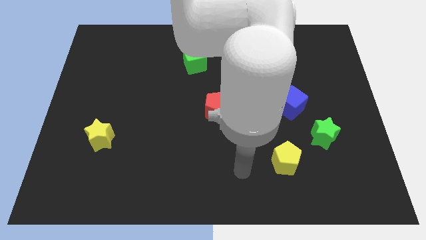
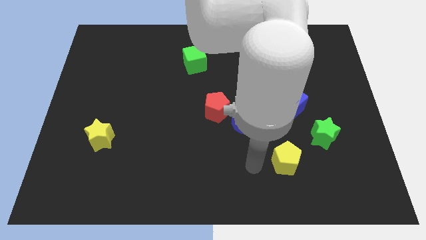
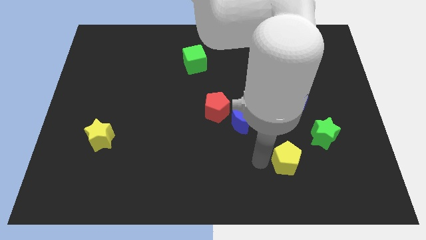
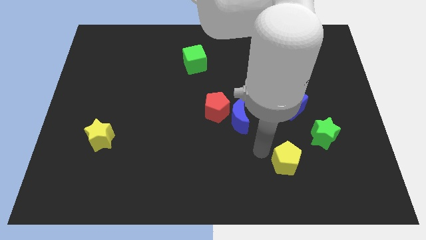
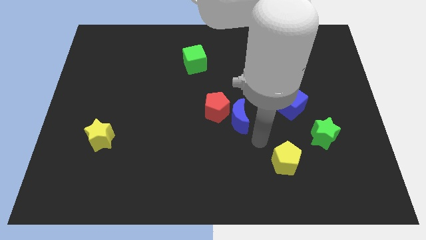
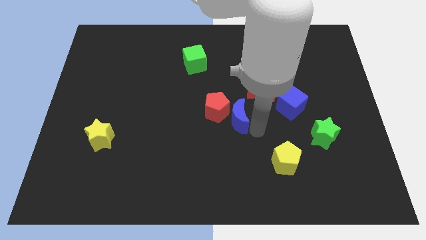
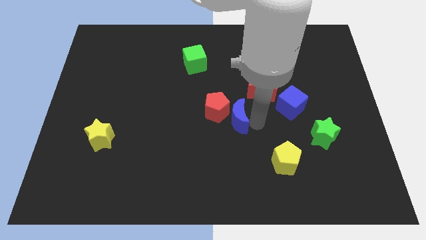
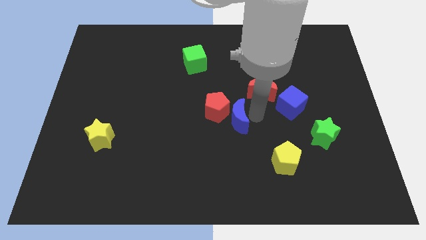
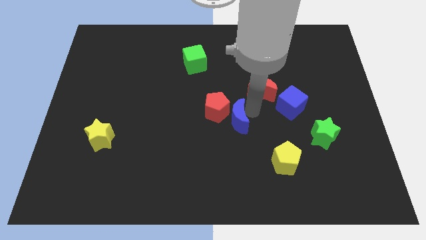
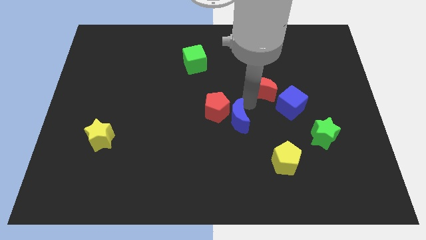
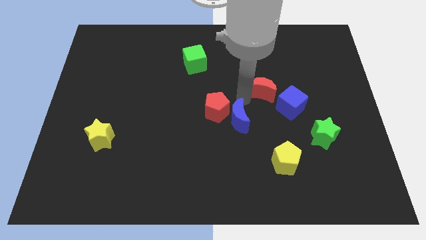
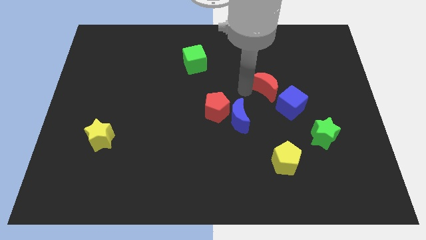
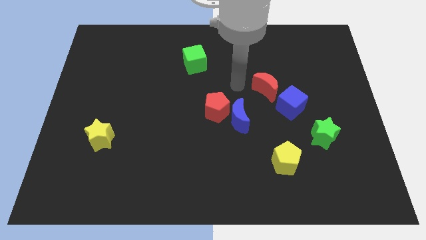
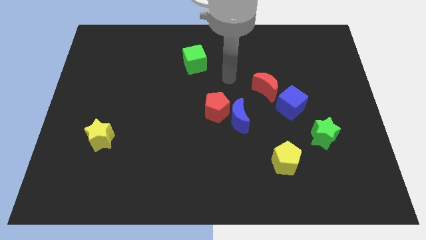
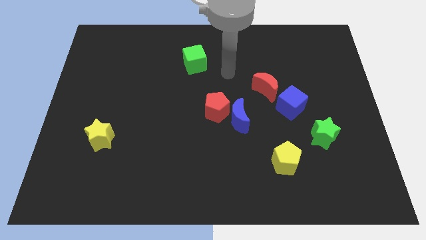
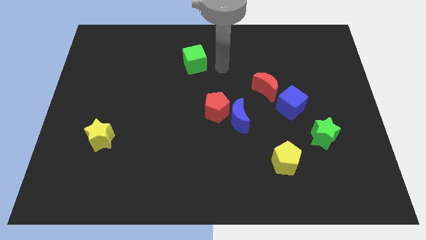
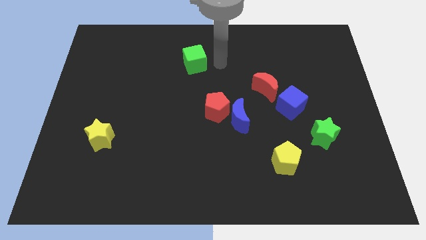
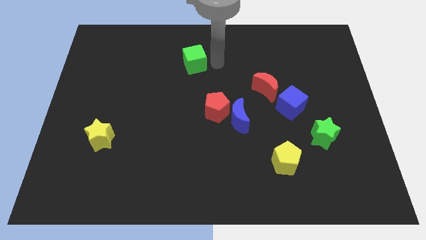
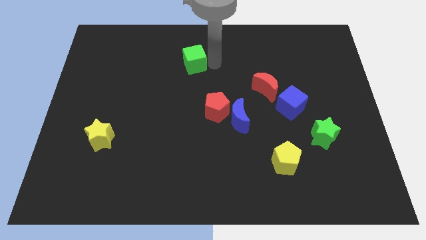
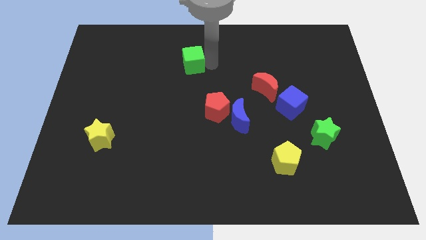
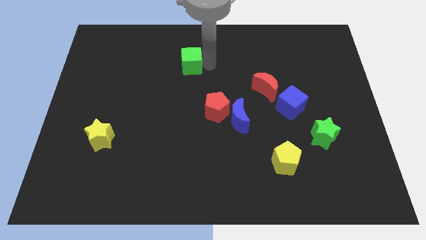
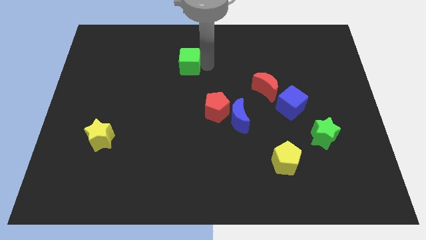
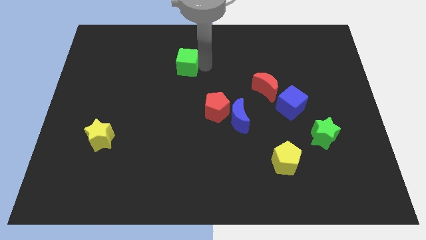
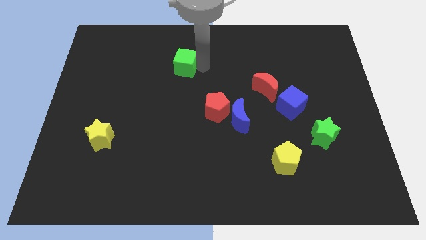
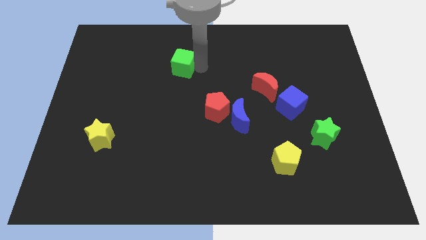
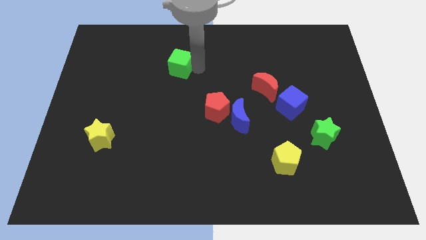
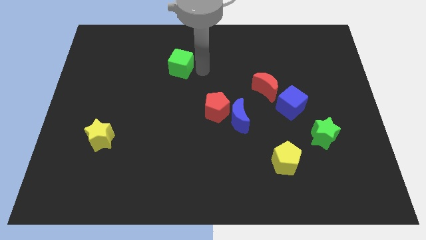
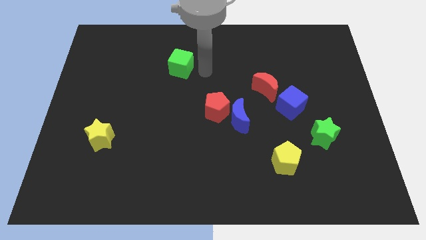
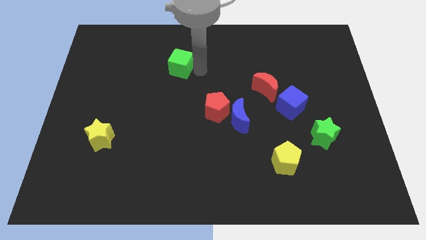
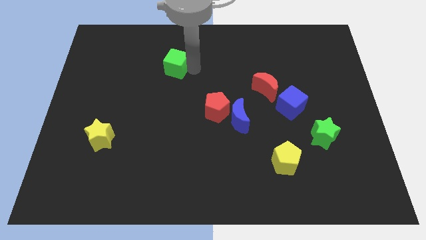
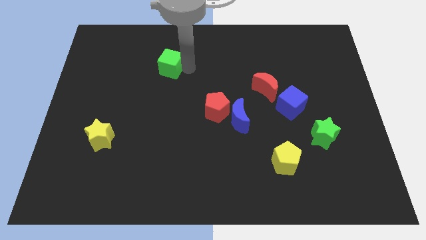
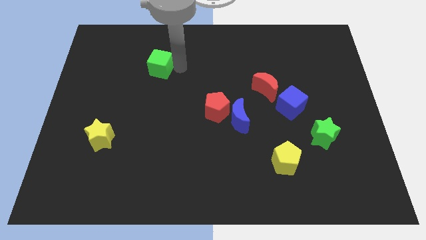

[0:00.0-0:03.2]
slide the green cube a little bit to the left

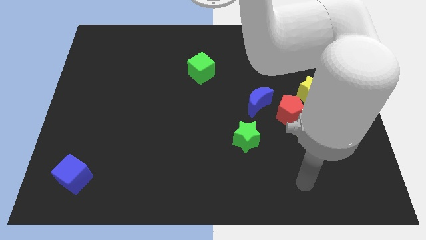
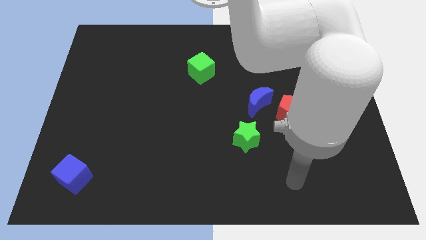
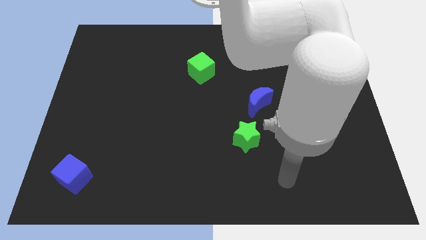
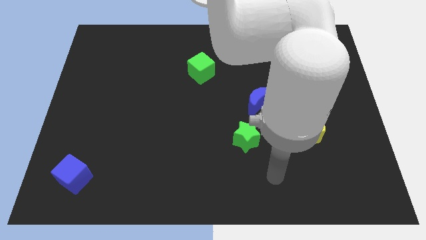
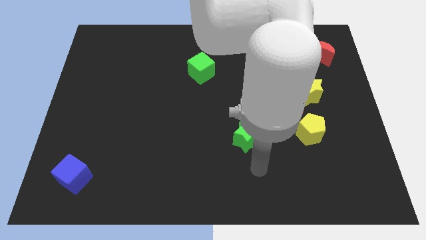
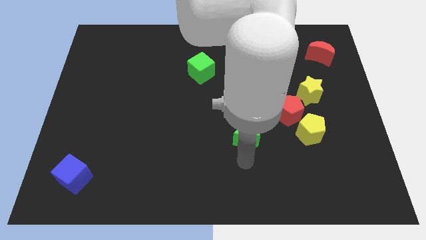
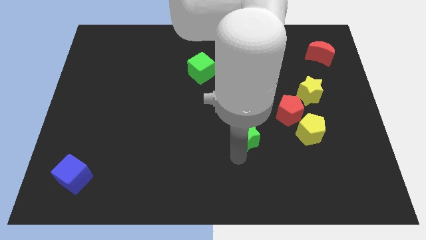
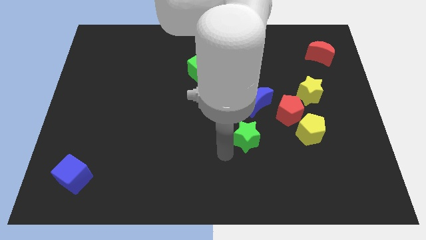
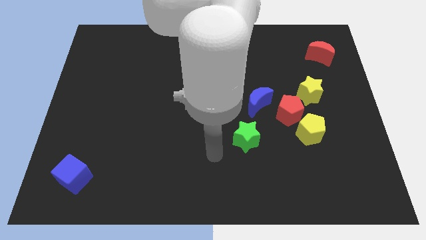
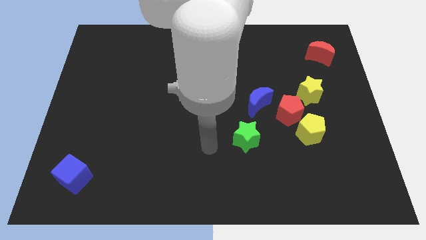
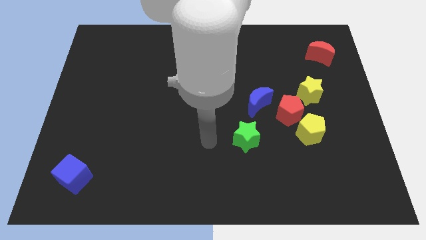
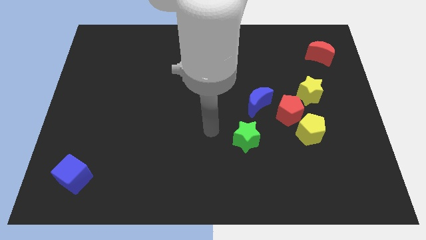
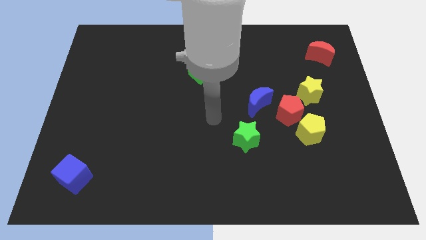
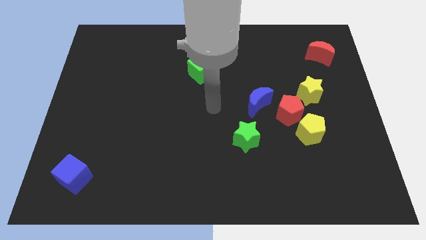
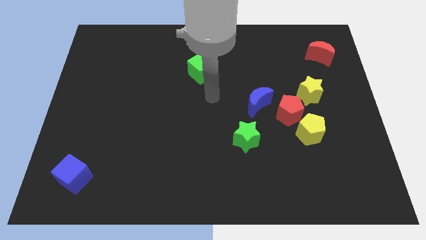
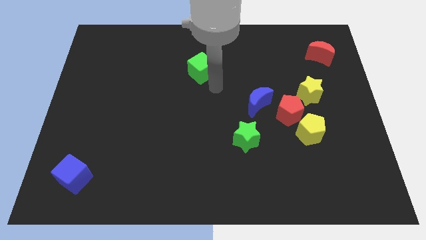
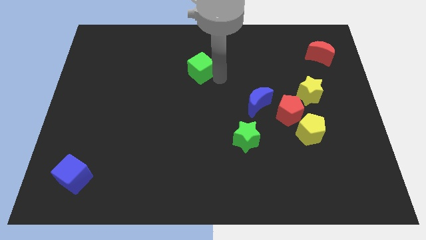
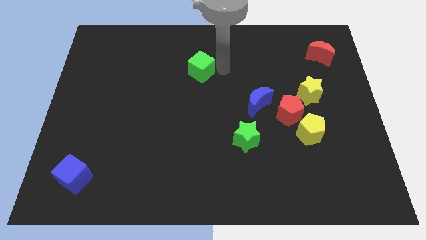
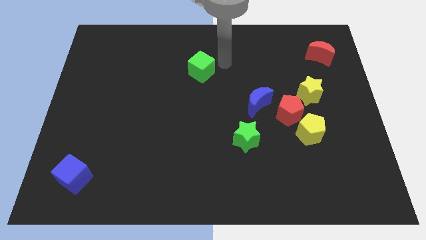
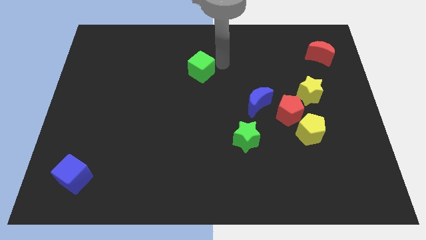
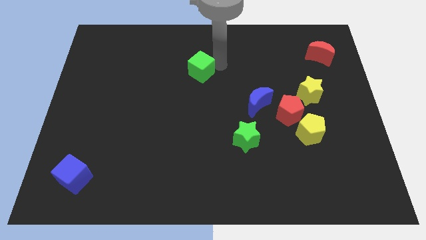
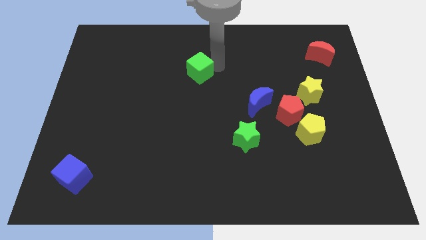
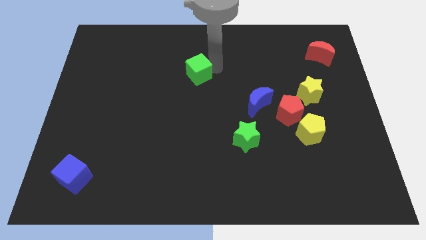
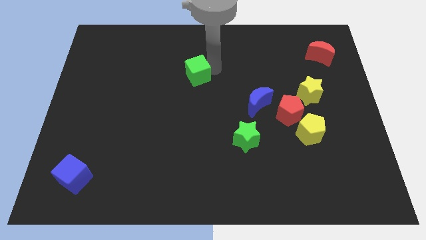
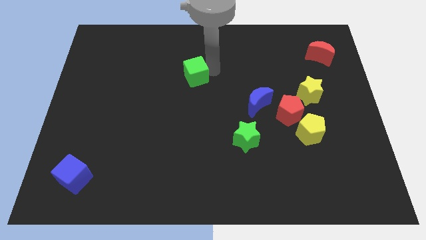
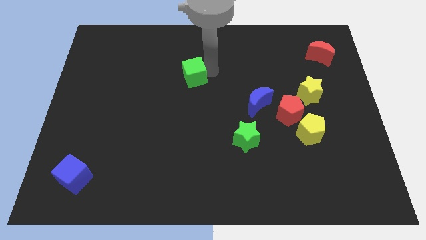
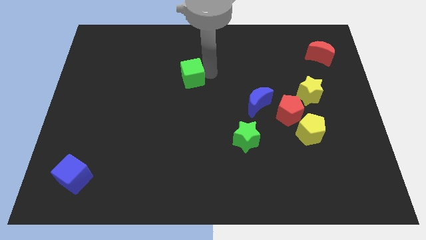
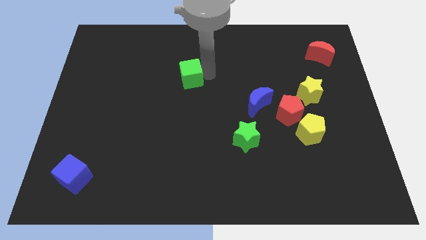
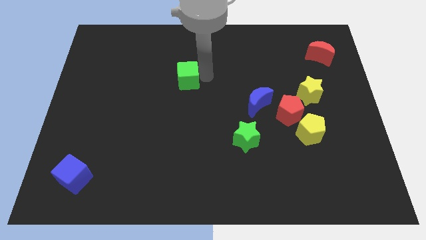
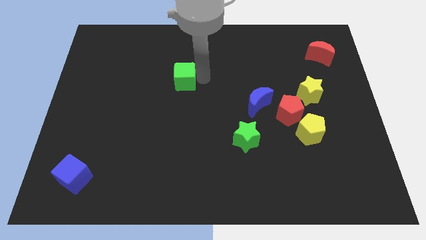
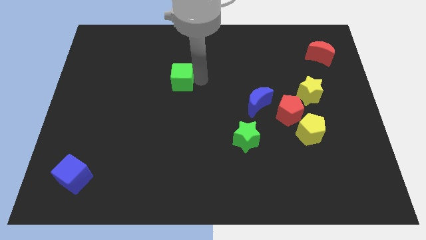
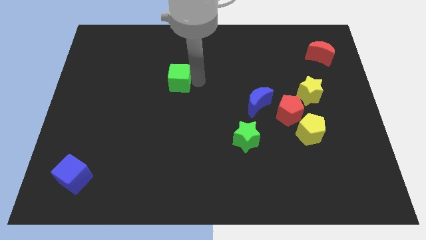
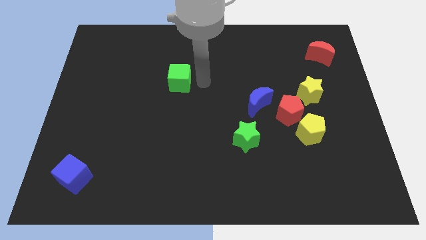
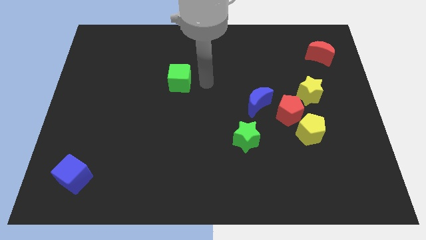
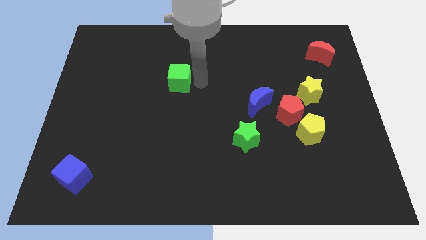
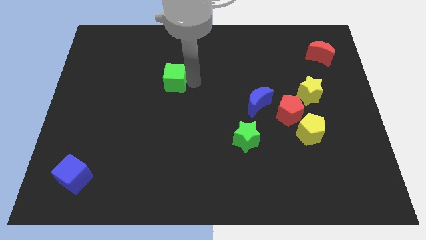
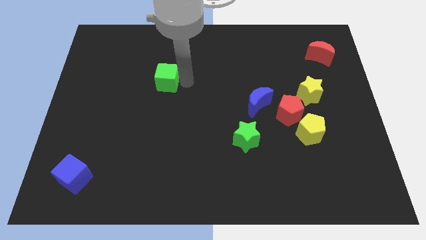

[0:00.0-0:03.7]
push the green cube slightly left

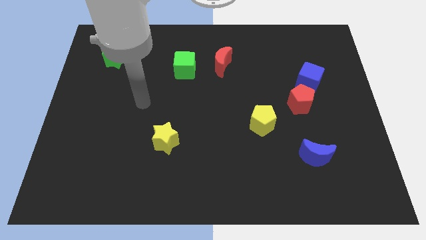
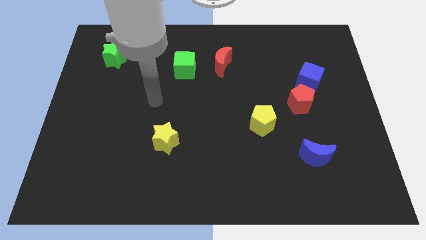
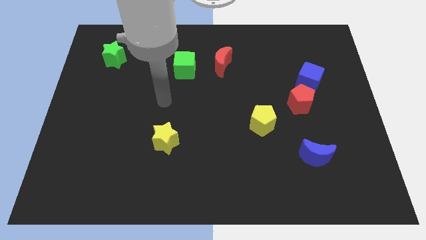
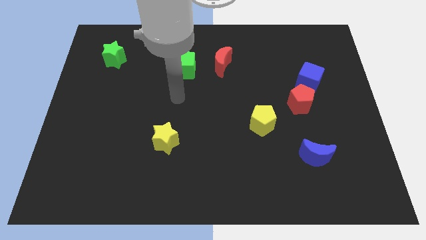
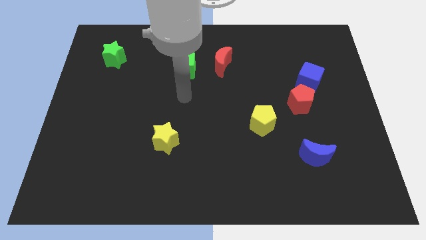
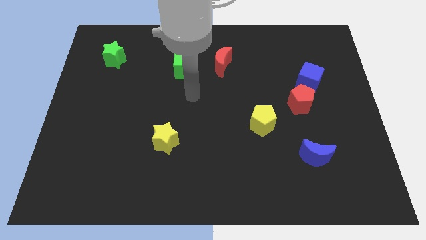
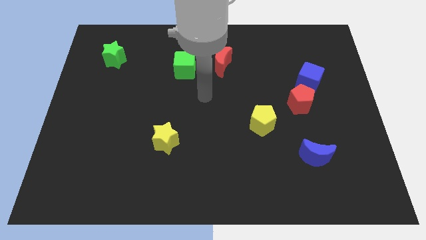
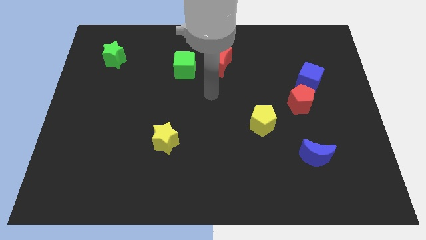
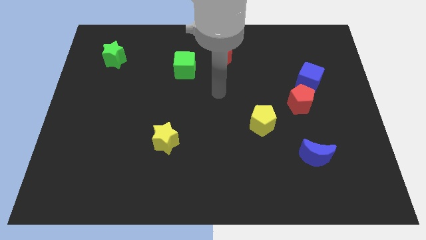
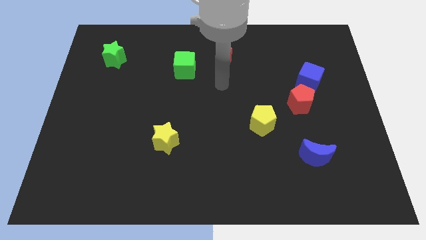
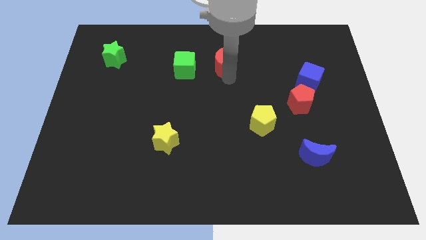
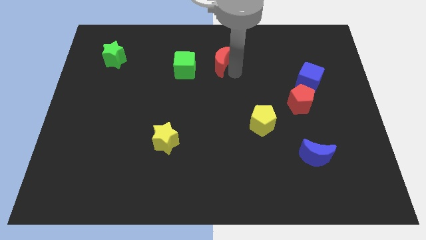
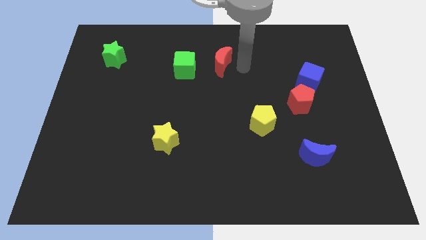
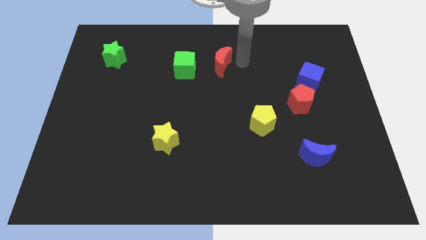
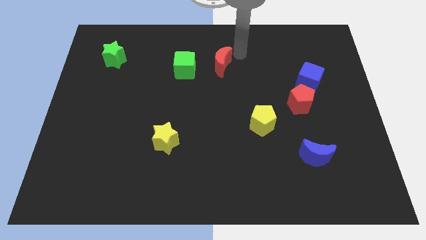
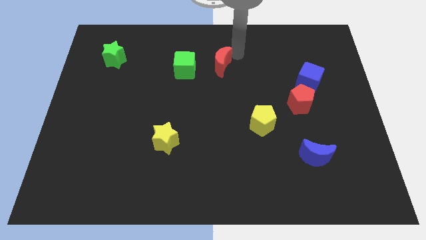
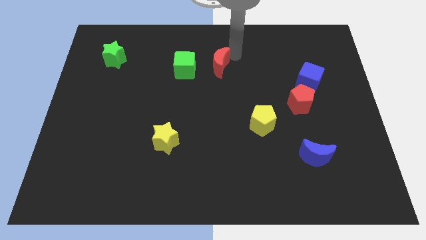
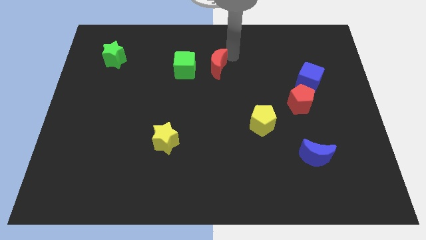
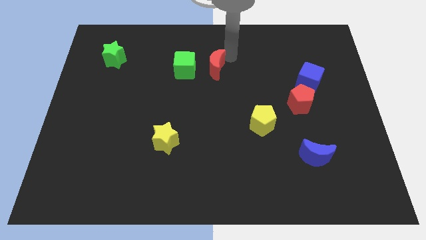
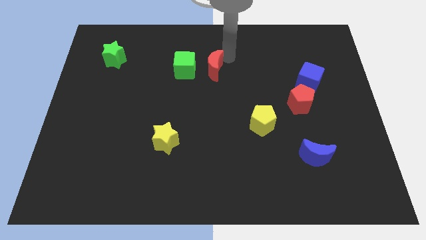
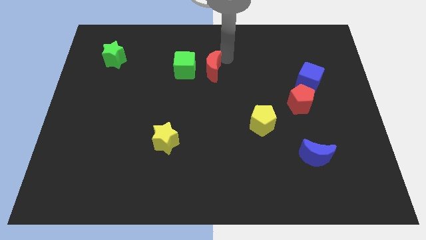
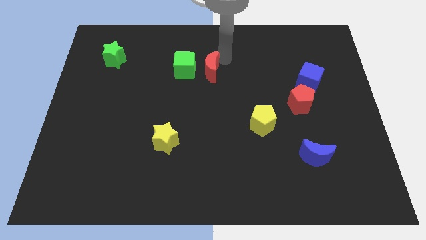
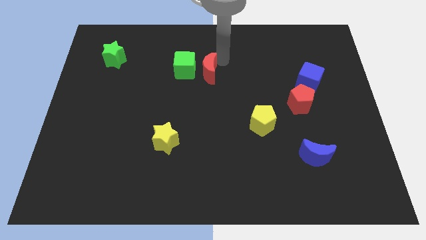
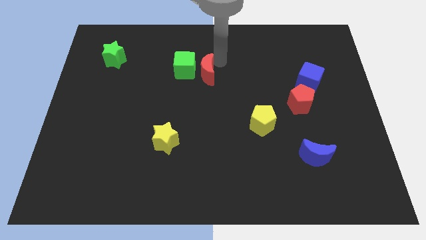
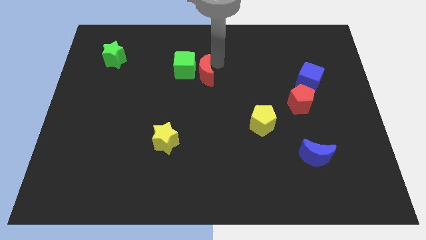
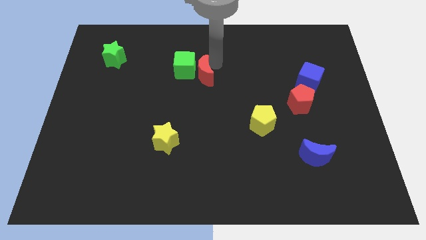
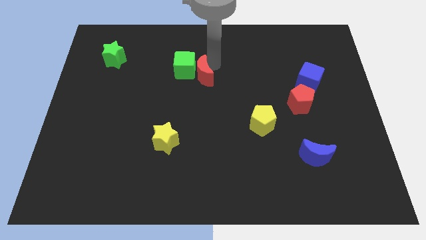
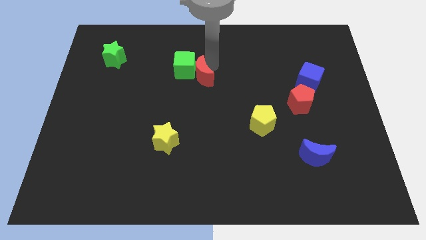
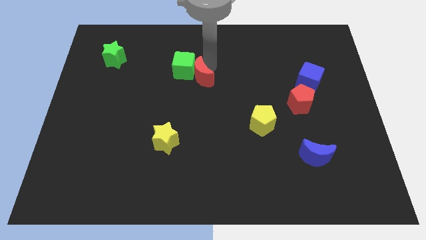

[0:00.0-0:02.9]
move the red moon somewhat downwards and then to the left
